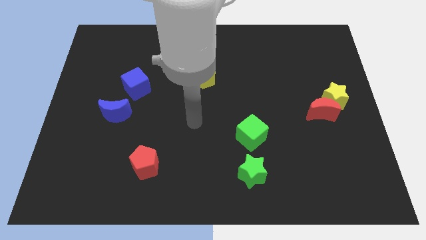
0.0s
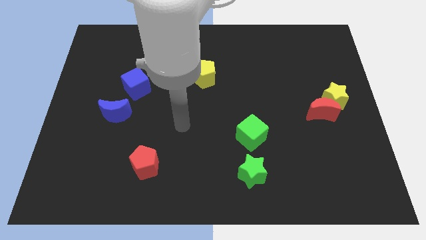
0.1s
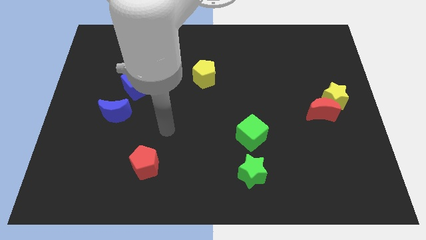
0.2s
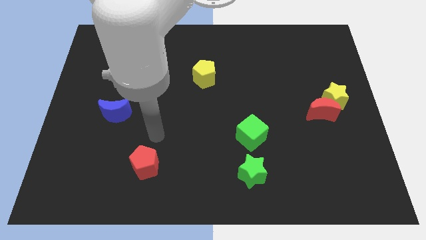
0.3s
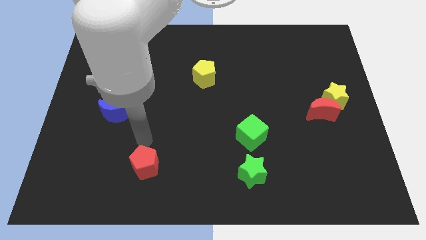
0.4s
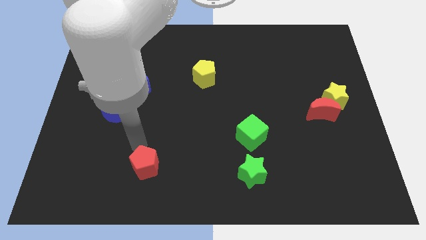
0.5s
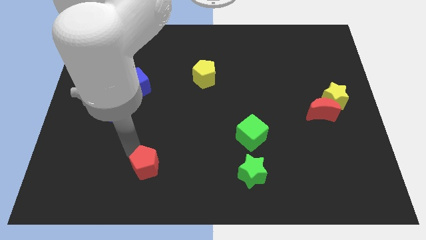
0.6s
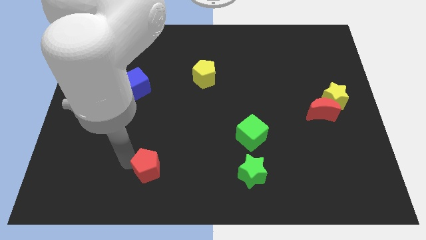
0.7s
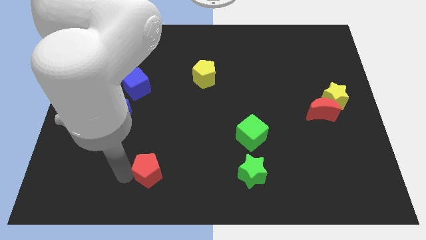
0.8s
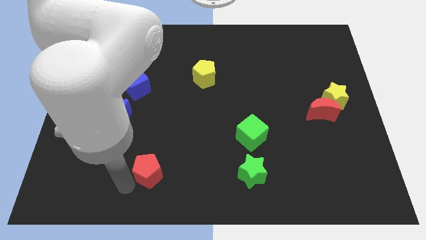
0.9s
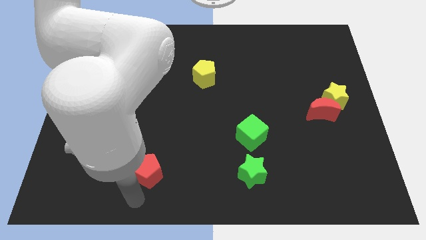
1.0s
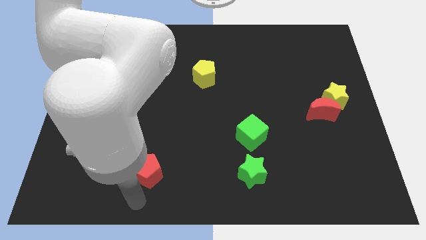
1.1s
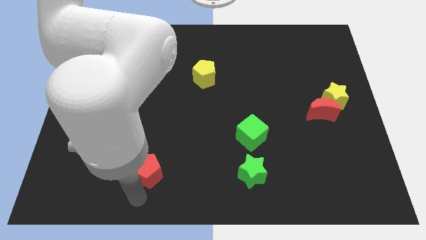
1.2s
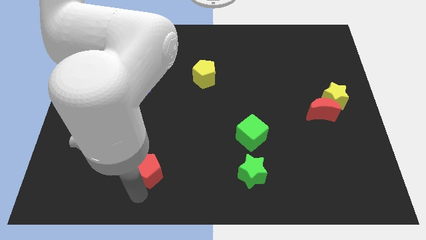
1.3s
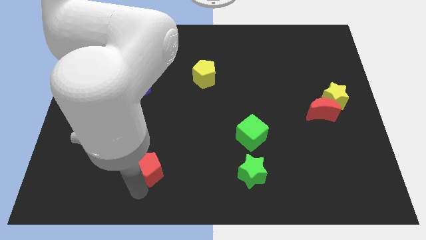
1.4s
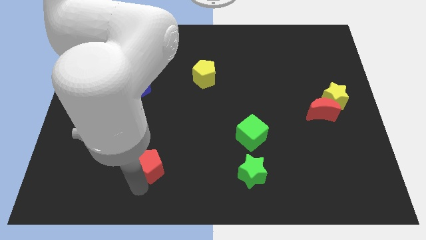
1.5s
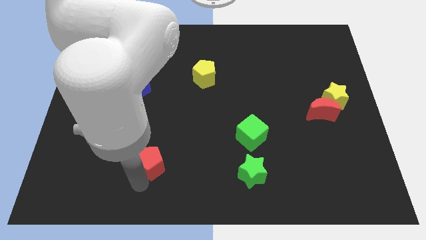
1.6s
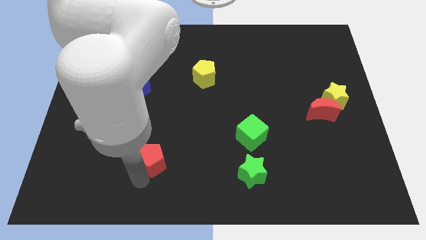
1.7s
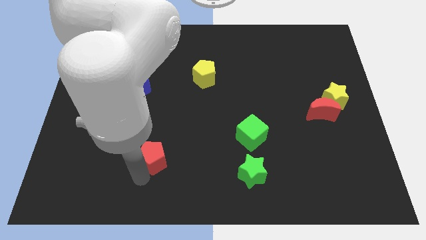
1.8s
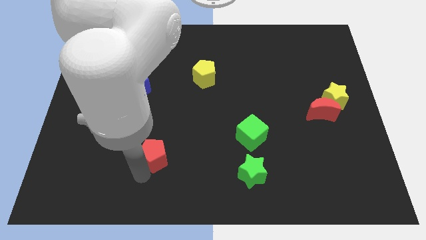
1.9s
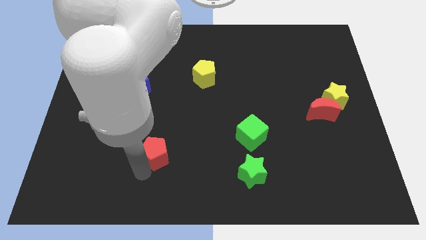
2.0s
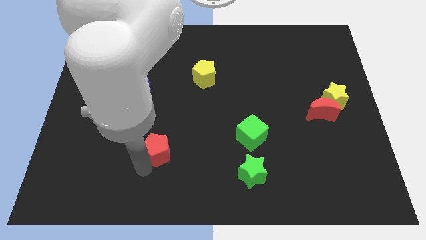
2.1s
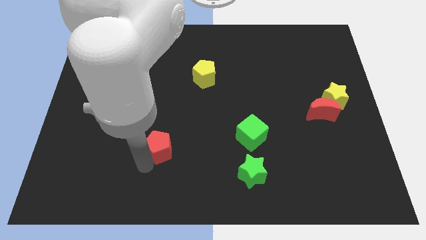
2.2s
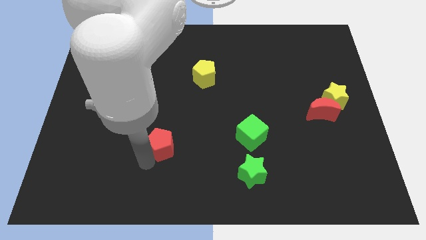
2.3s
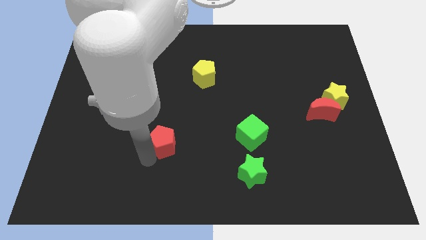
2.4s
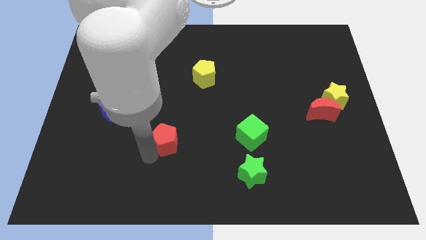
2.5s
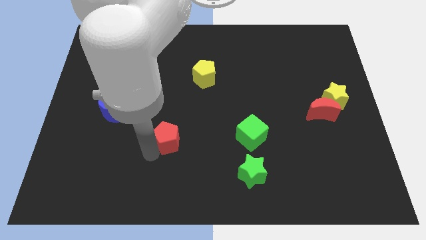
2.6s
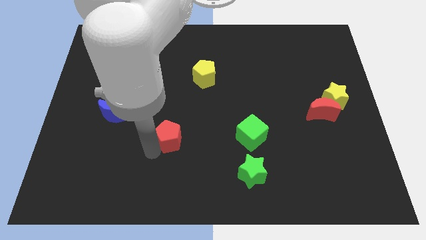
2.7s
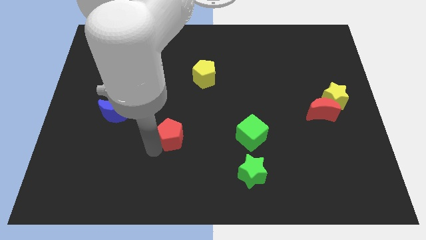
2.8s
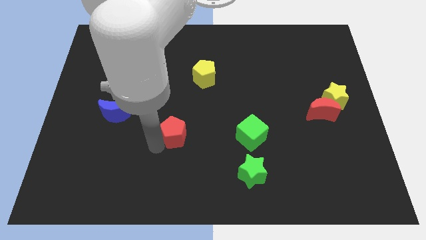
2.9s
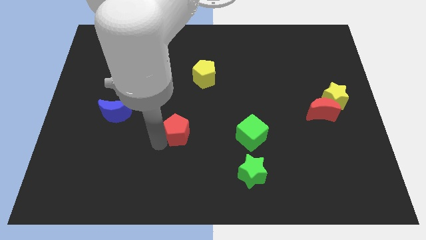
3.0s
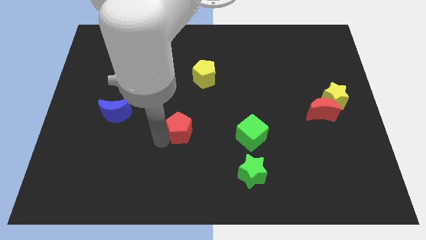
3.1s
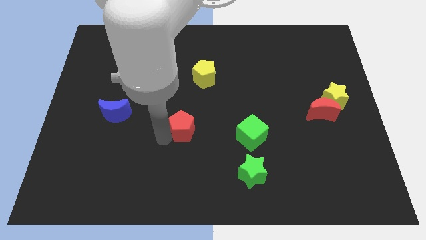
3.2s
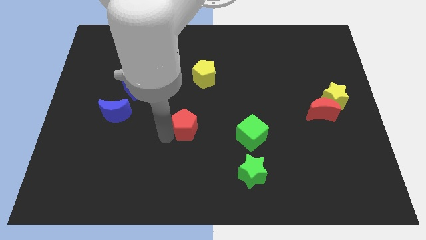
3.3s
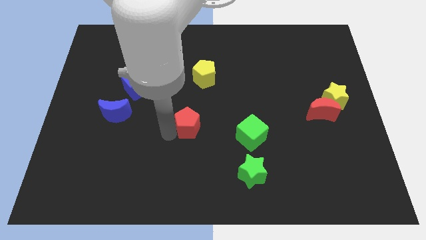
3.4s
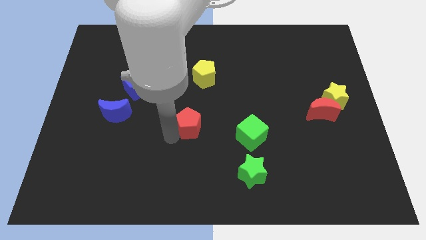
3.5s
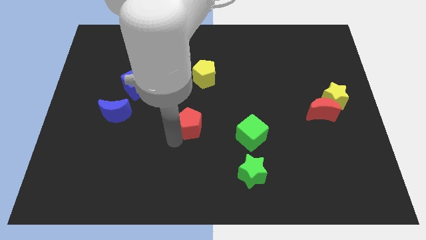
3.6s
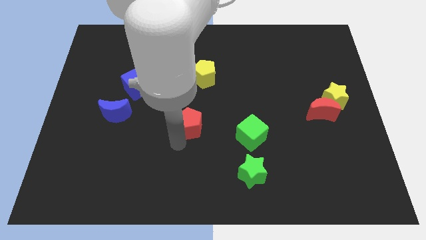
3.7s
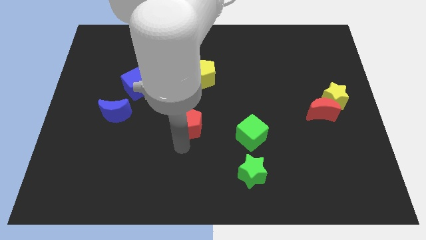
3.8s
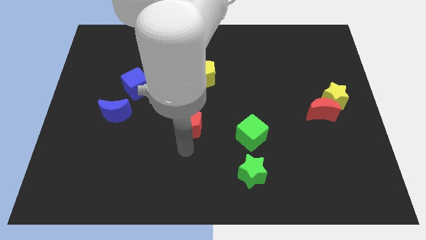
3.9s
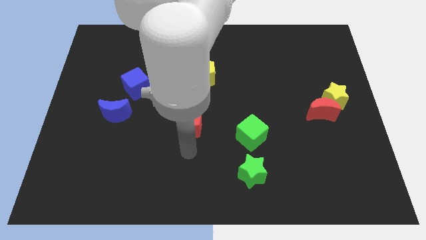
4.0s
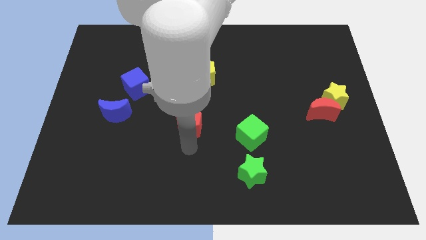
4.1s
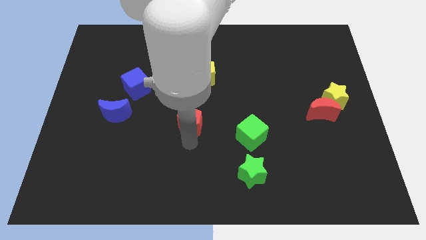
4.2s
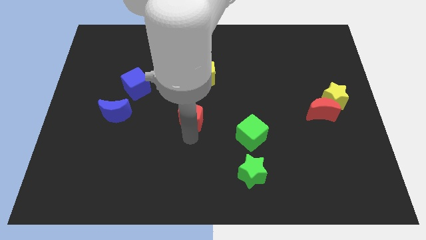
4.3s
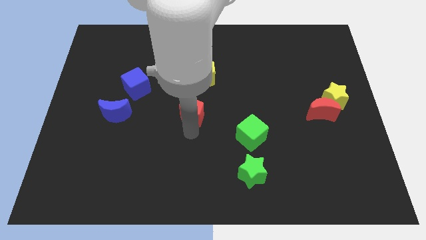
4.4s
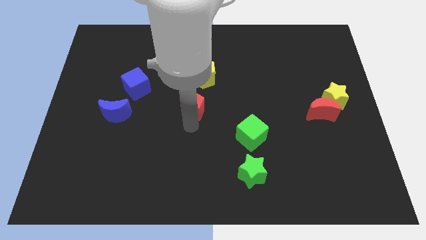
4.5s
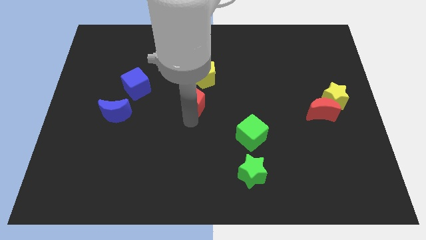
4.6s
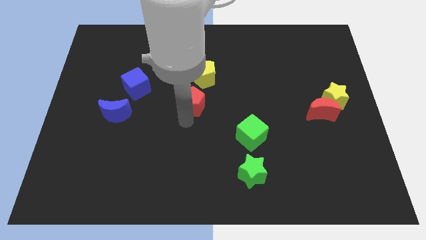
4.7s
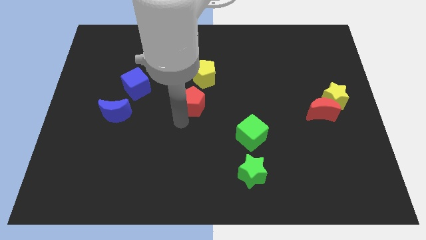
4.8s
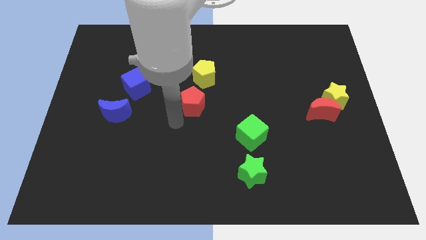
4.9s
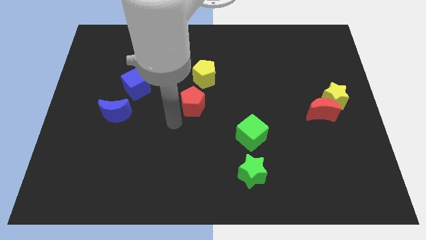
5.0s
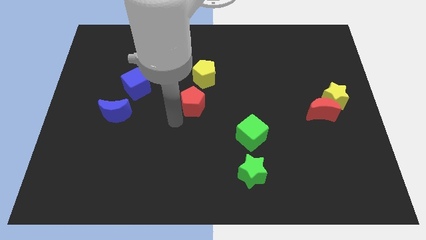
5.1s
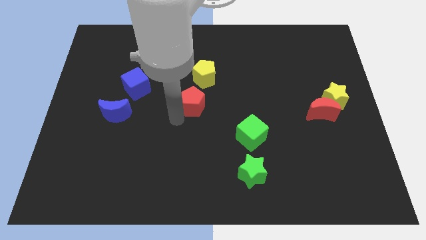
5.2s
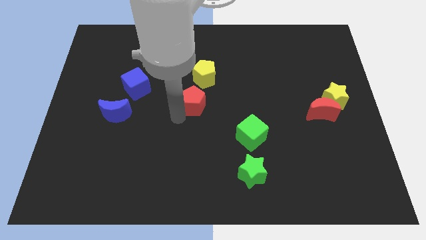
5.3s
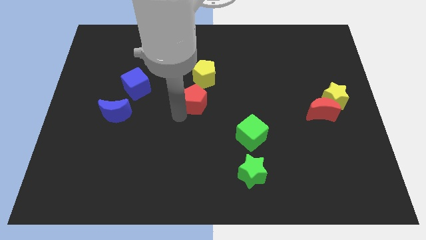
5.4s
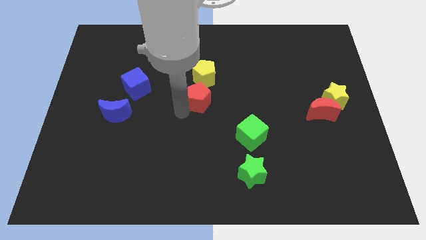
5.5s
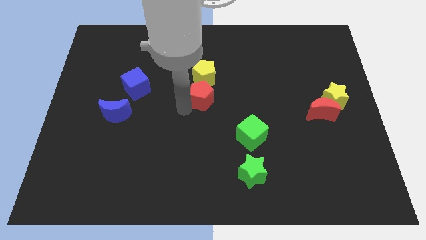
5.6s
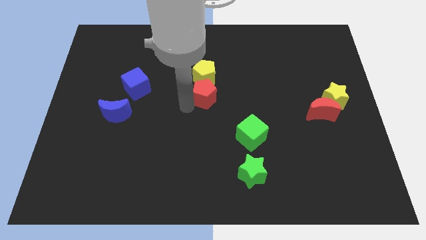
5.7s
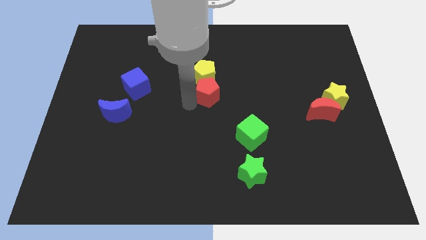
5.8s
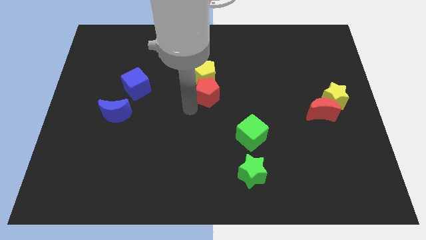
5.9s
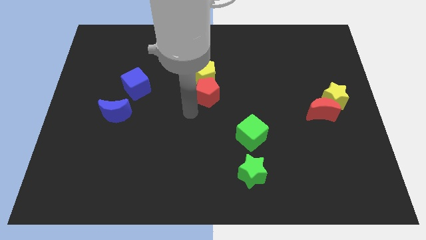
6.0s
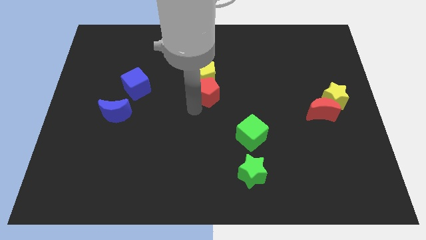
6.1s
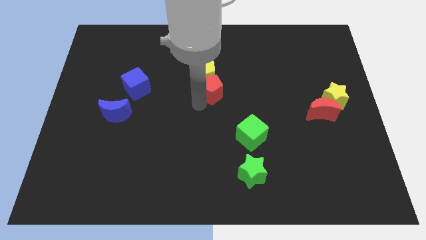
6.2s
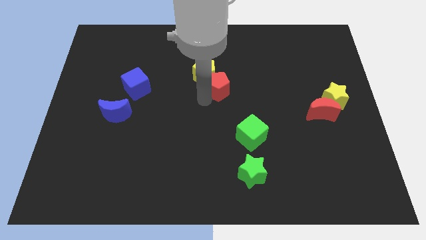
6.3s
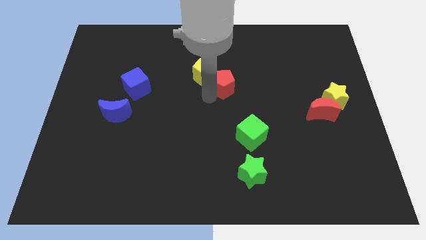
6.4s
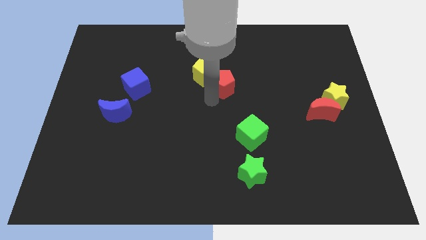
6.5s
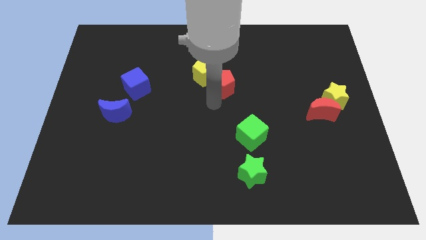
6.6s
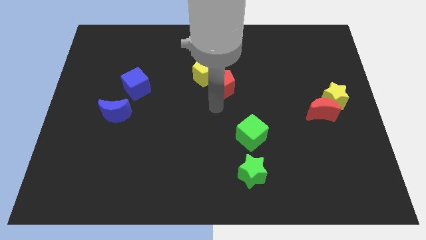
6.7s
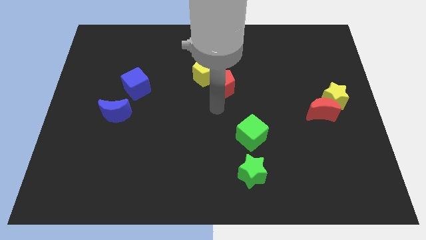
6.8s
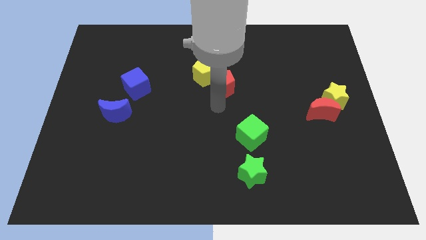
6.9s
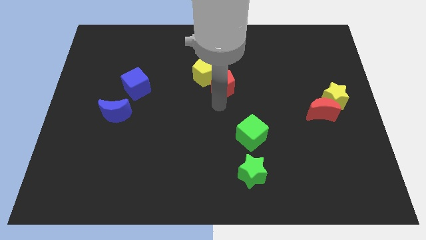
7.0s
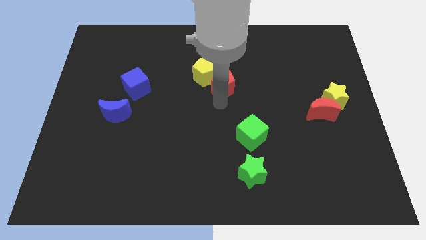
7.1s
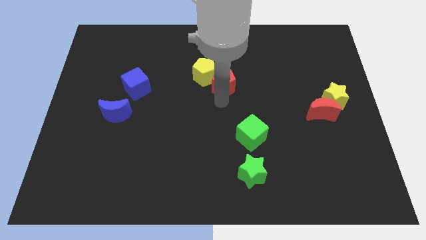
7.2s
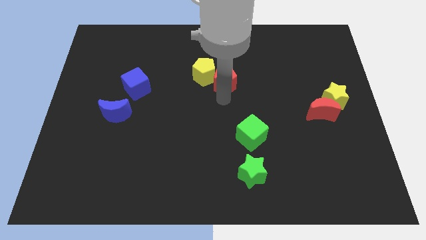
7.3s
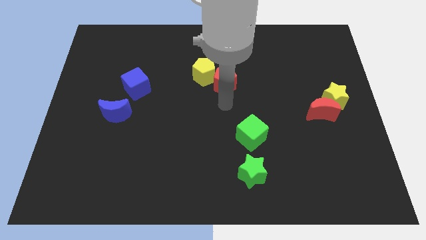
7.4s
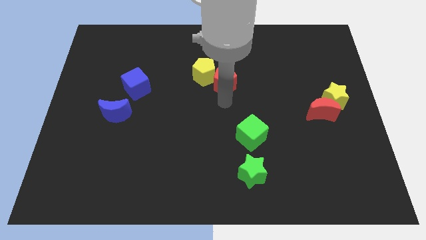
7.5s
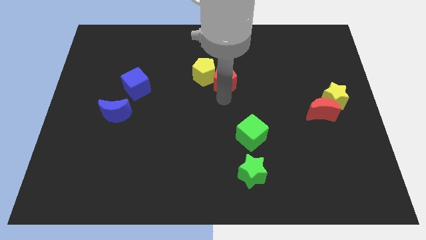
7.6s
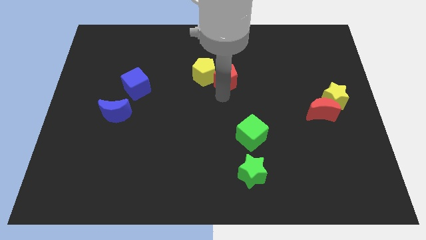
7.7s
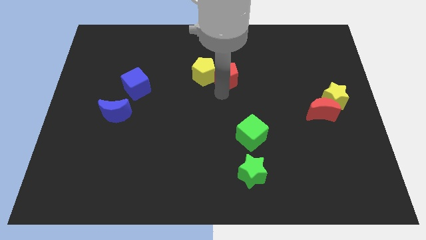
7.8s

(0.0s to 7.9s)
move the red pentagon to the top right of the yellow pentagon

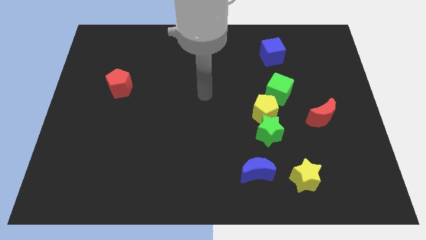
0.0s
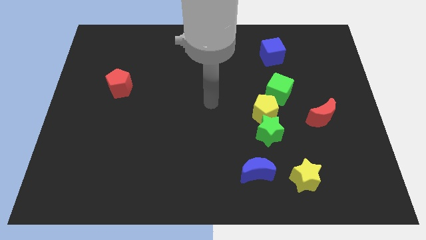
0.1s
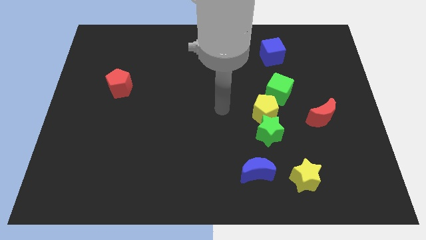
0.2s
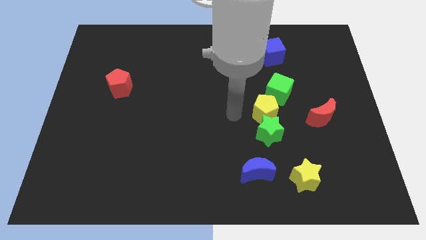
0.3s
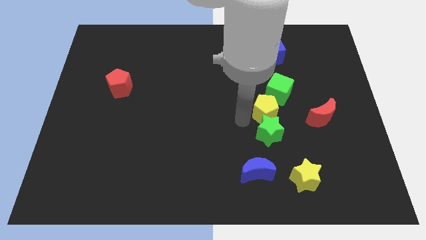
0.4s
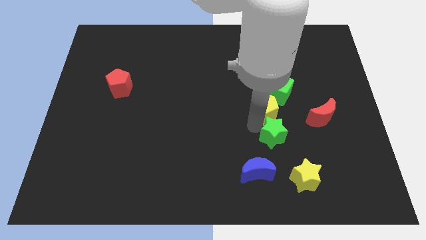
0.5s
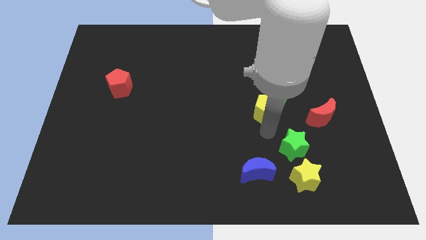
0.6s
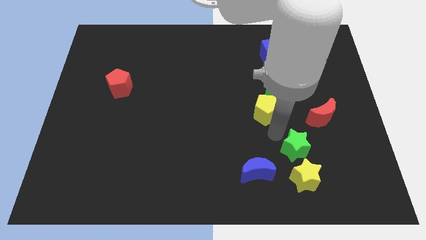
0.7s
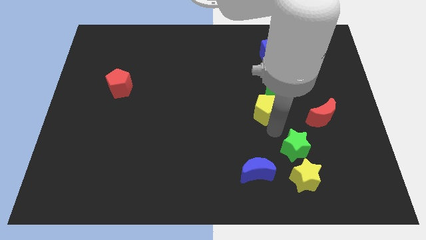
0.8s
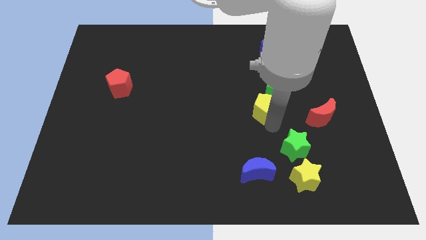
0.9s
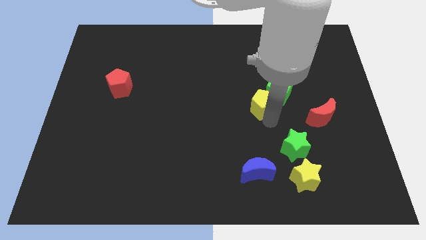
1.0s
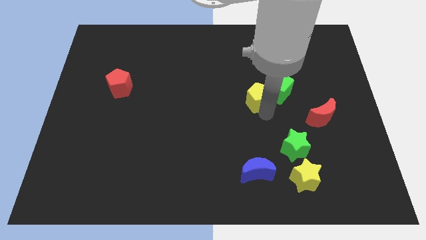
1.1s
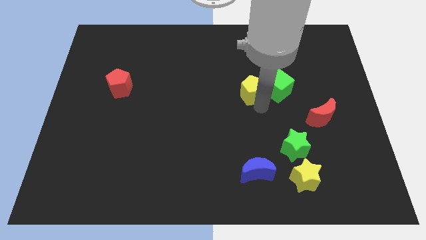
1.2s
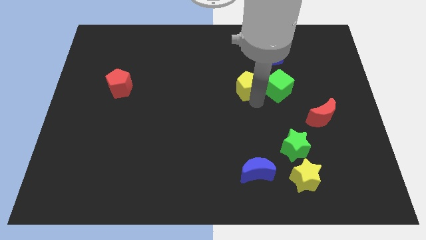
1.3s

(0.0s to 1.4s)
push the yellow pentagon to the top left of the green cube
